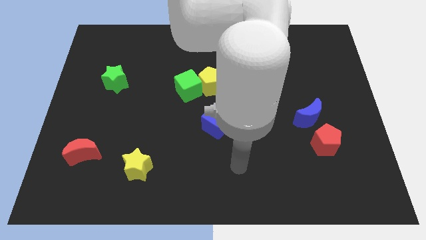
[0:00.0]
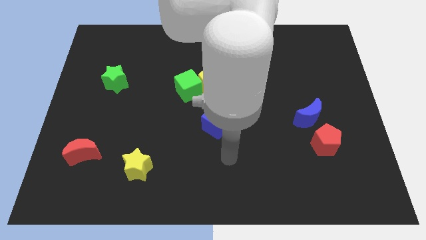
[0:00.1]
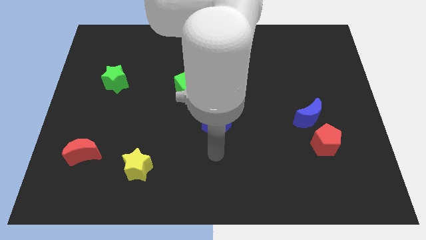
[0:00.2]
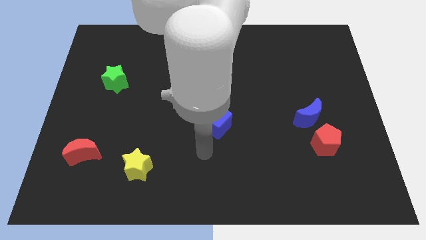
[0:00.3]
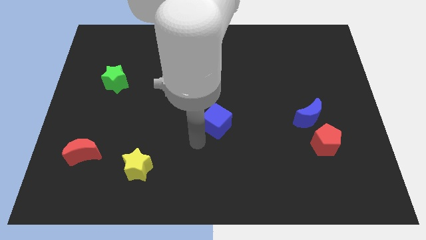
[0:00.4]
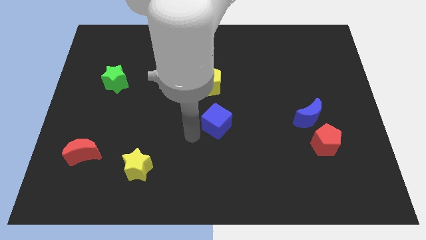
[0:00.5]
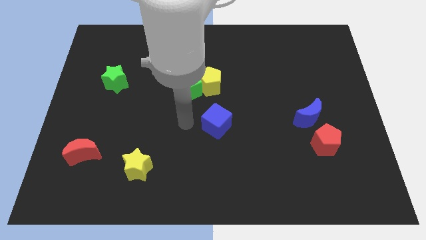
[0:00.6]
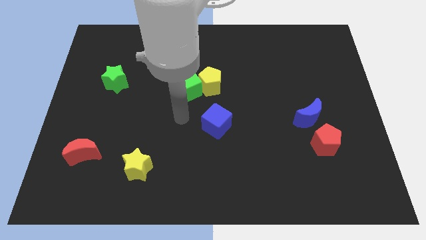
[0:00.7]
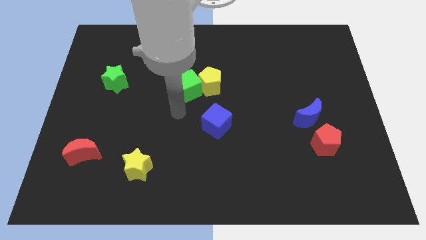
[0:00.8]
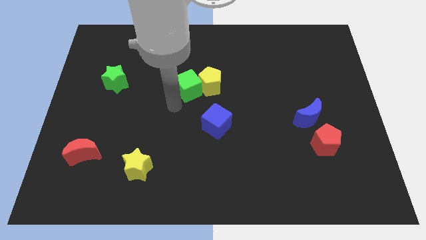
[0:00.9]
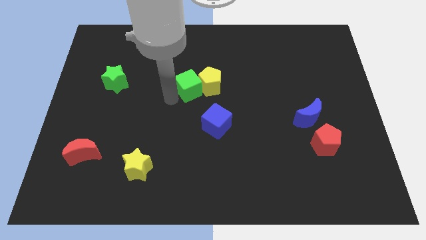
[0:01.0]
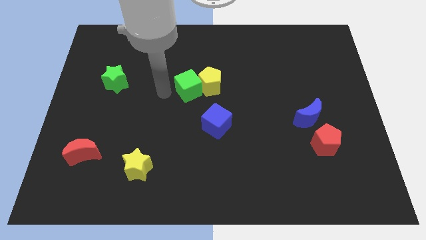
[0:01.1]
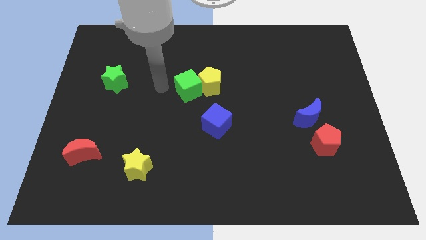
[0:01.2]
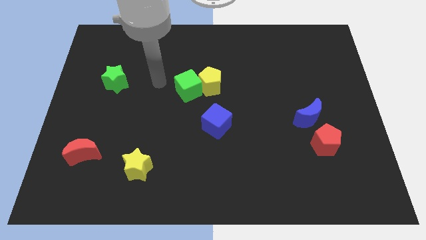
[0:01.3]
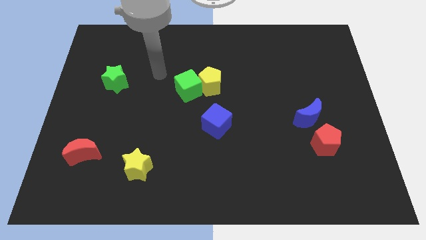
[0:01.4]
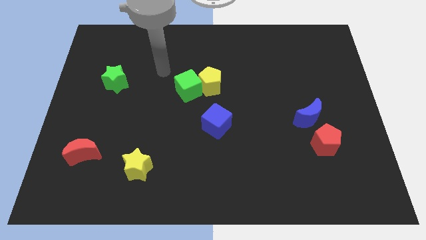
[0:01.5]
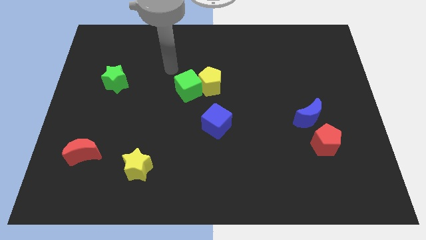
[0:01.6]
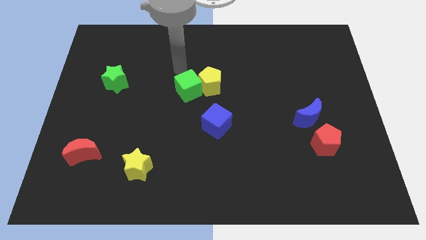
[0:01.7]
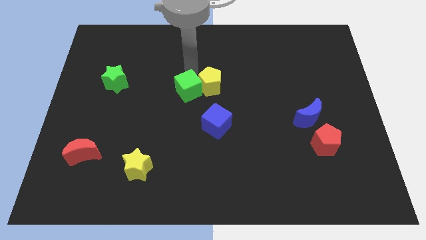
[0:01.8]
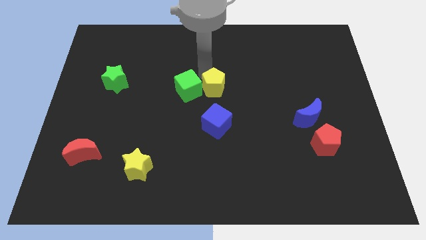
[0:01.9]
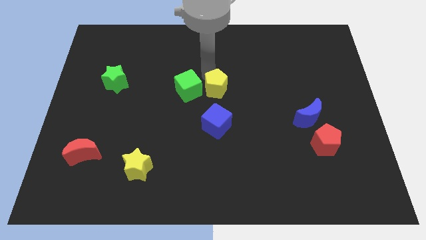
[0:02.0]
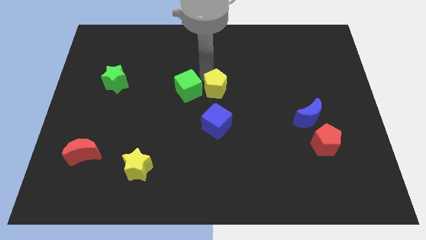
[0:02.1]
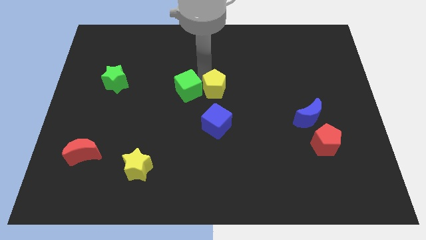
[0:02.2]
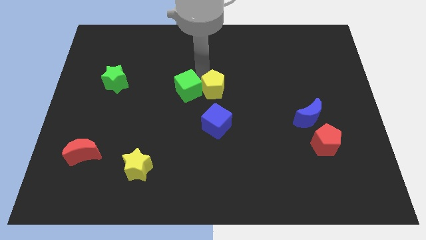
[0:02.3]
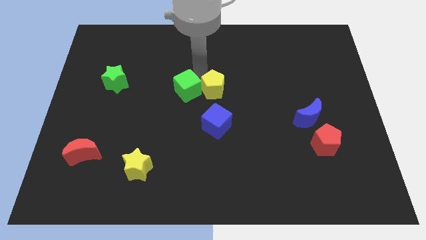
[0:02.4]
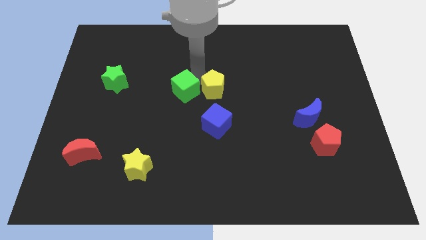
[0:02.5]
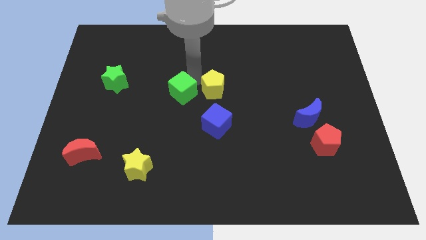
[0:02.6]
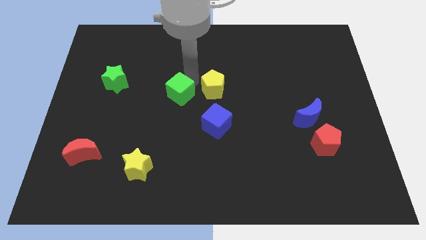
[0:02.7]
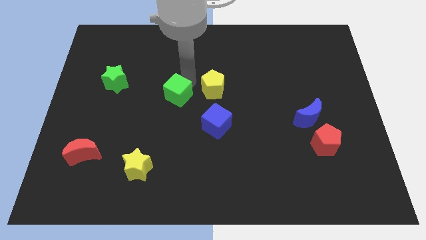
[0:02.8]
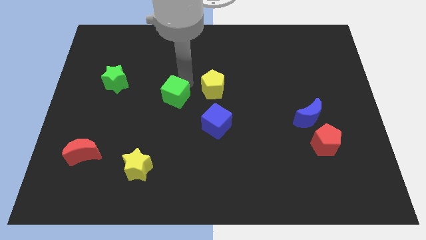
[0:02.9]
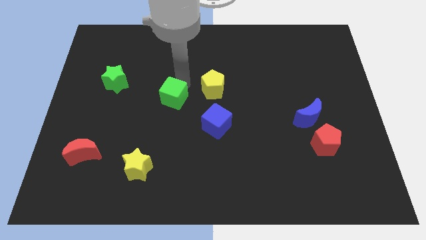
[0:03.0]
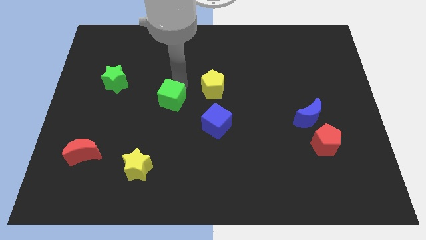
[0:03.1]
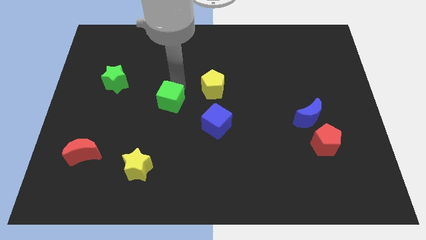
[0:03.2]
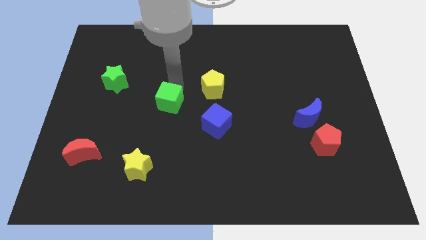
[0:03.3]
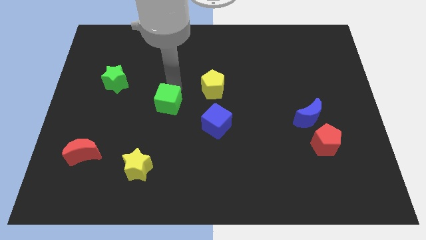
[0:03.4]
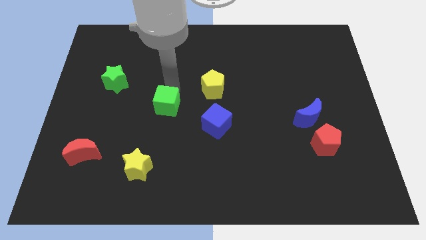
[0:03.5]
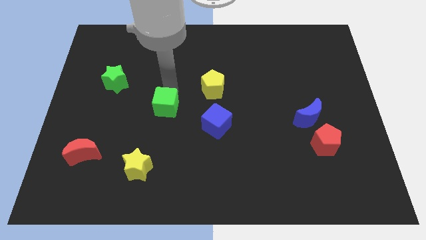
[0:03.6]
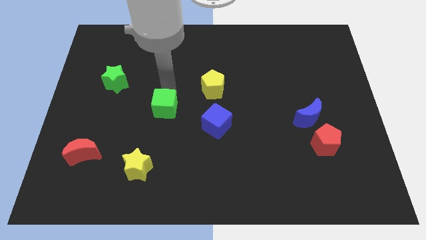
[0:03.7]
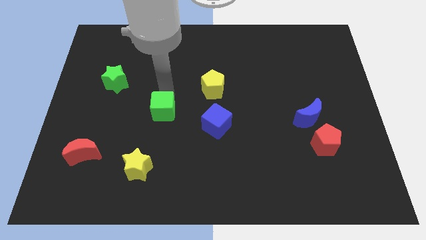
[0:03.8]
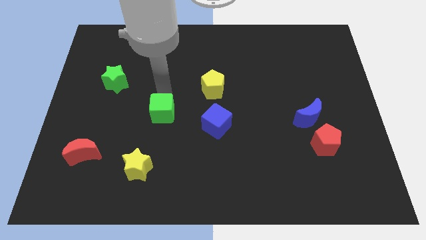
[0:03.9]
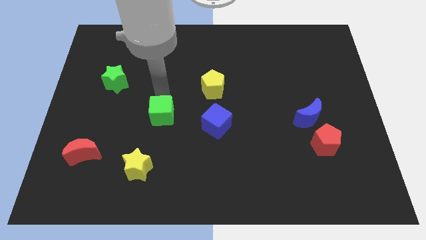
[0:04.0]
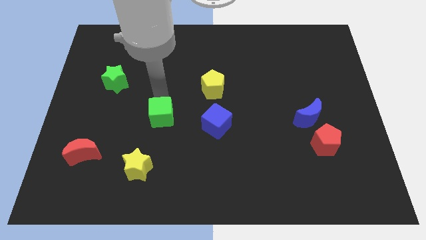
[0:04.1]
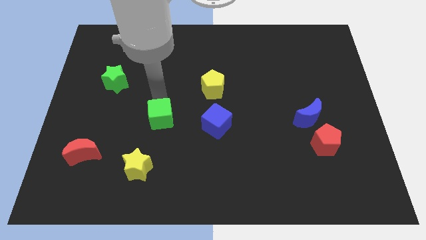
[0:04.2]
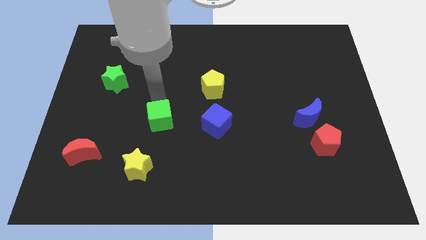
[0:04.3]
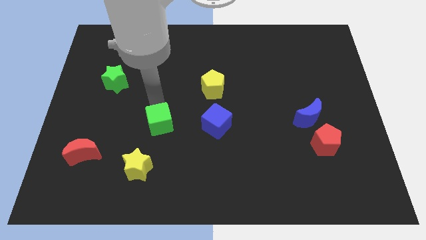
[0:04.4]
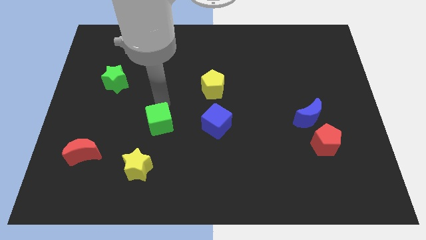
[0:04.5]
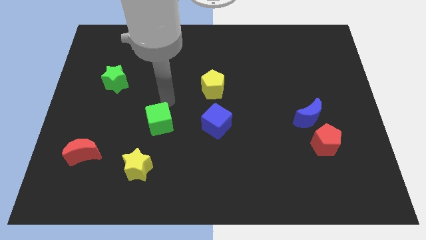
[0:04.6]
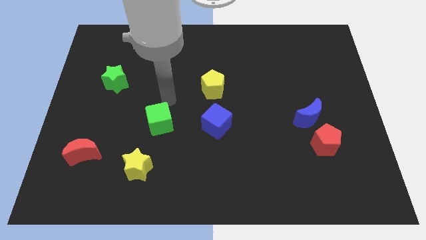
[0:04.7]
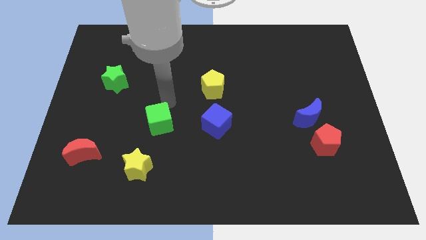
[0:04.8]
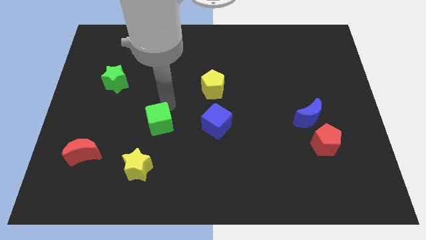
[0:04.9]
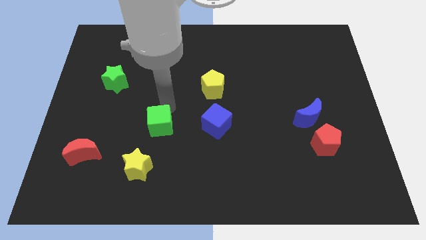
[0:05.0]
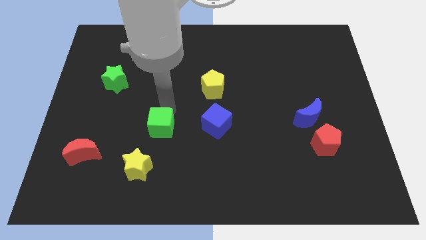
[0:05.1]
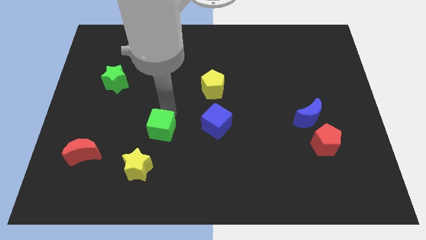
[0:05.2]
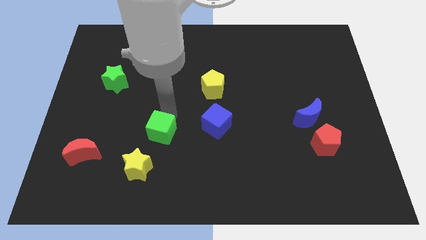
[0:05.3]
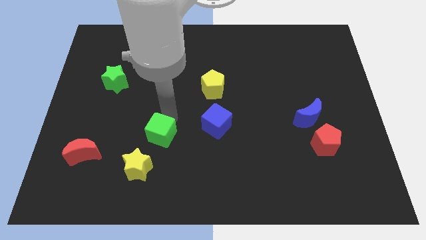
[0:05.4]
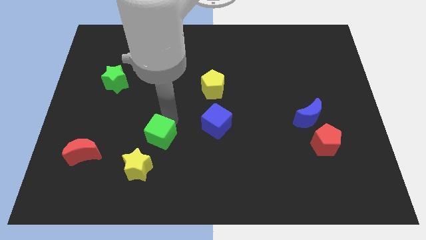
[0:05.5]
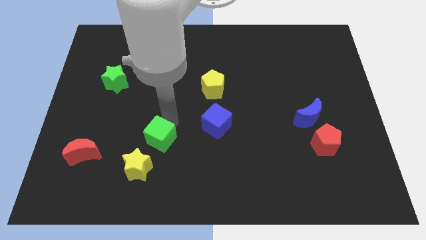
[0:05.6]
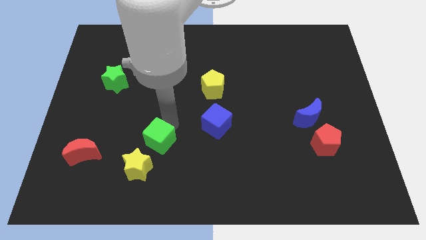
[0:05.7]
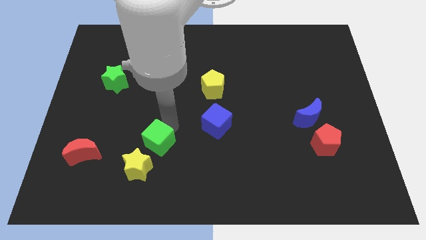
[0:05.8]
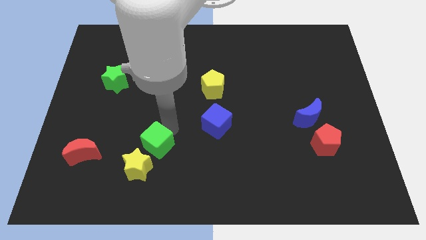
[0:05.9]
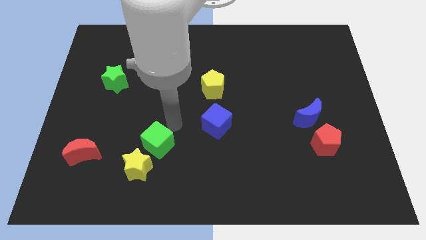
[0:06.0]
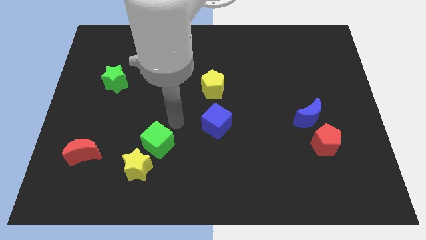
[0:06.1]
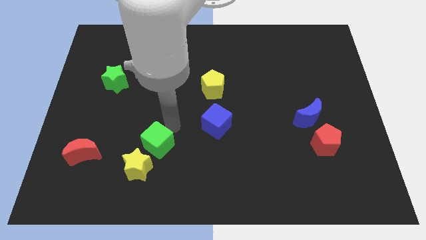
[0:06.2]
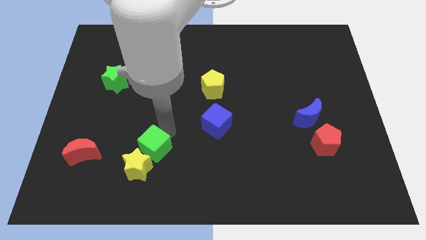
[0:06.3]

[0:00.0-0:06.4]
move the green cube towards the yellow star

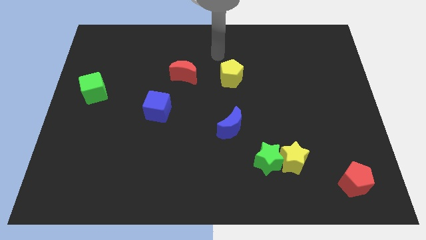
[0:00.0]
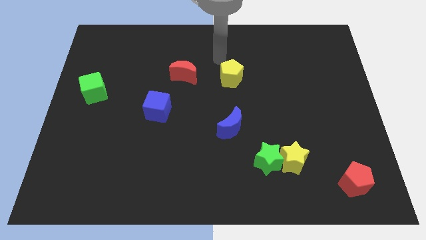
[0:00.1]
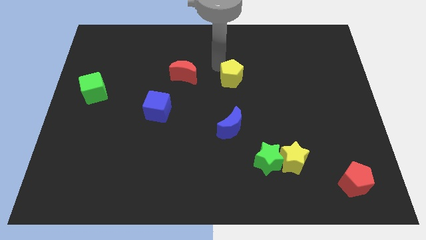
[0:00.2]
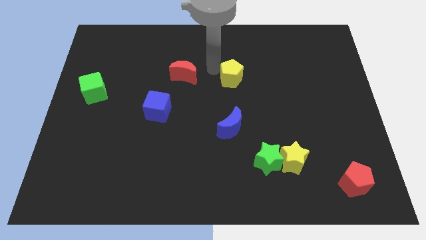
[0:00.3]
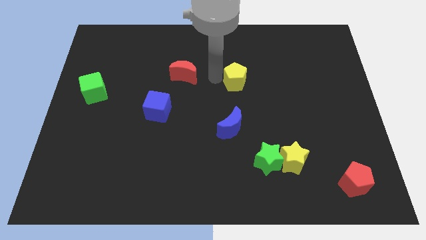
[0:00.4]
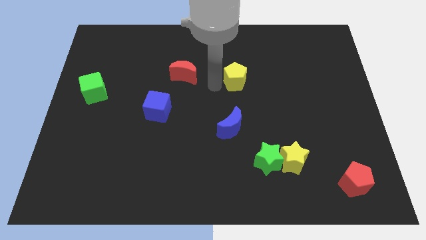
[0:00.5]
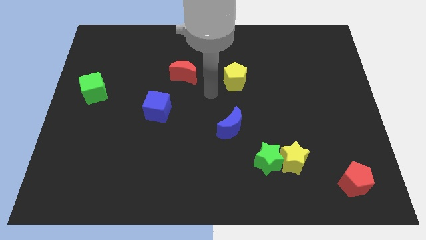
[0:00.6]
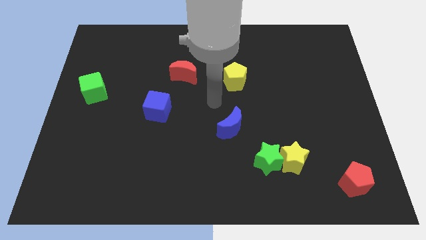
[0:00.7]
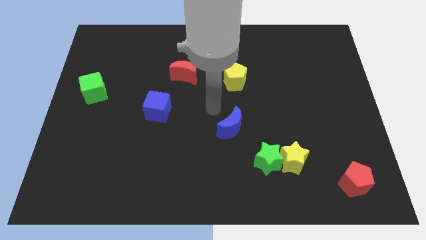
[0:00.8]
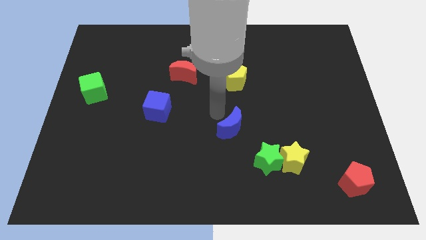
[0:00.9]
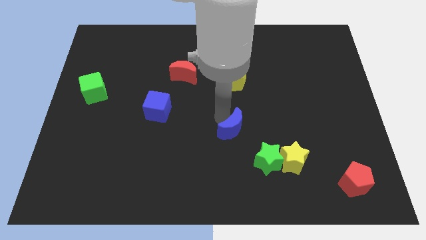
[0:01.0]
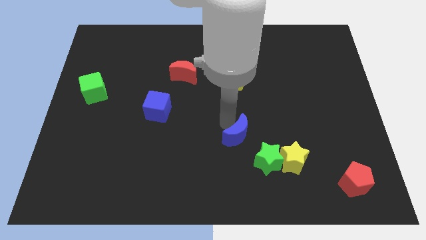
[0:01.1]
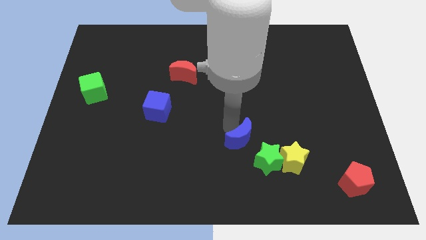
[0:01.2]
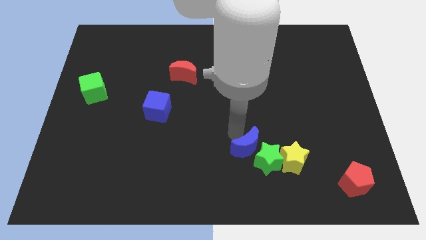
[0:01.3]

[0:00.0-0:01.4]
push the blue moon next to the green star
